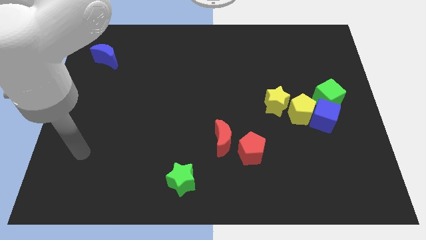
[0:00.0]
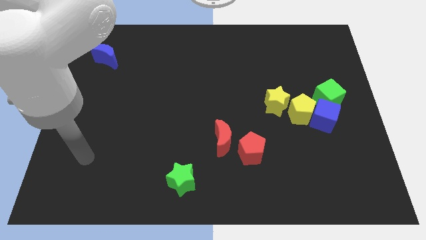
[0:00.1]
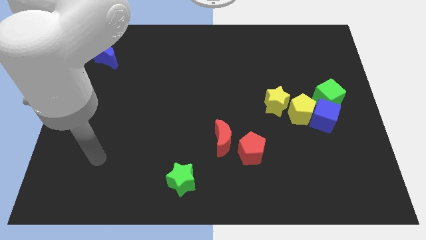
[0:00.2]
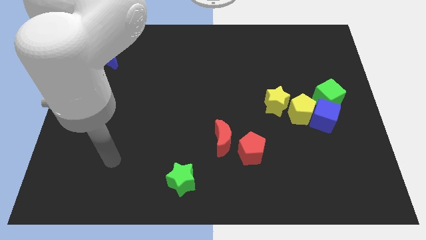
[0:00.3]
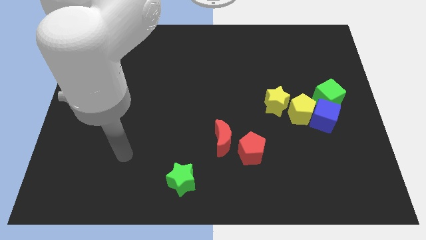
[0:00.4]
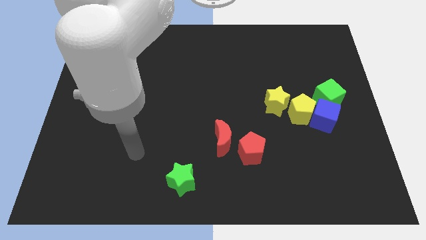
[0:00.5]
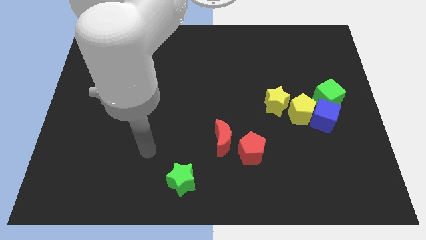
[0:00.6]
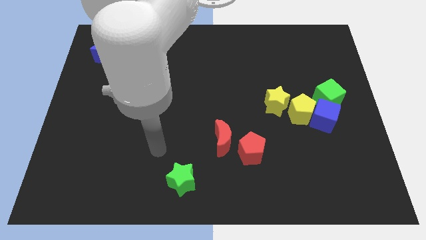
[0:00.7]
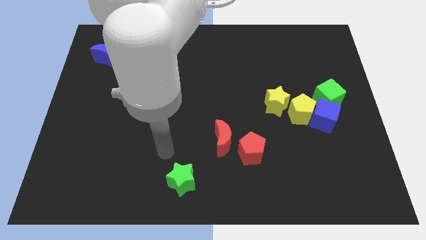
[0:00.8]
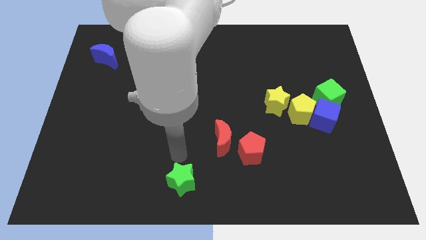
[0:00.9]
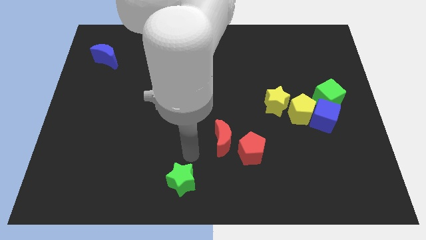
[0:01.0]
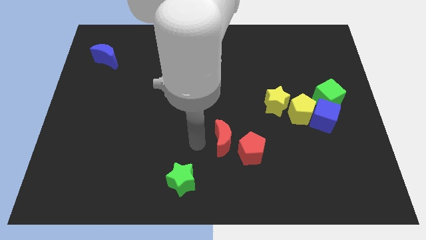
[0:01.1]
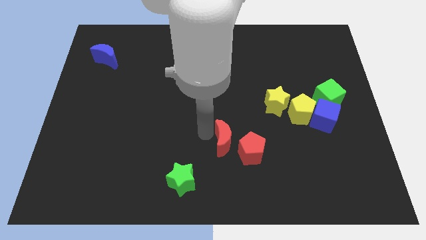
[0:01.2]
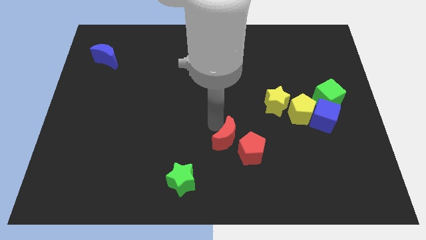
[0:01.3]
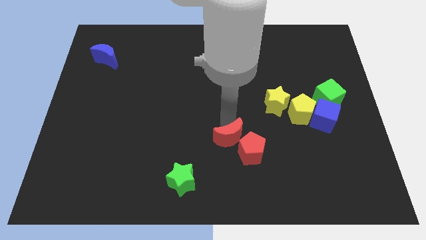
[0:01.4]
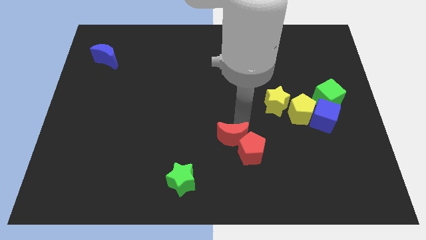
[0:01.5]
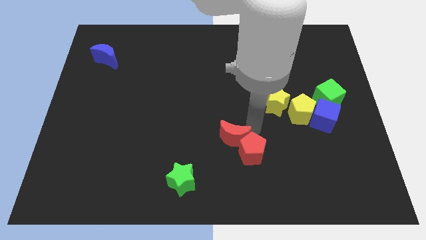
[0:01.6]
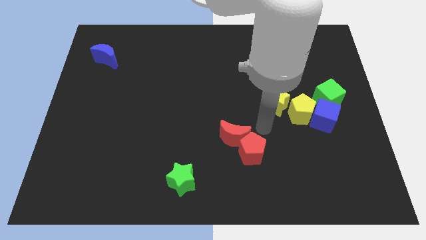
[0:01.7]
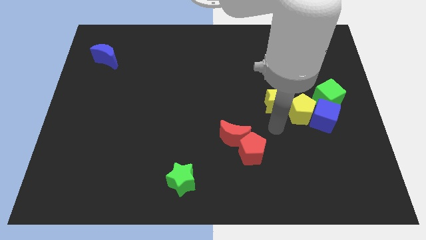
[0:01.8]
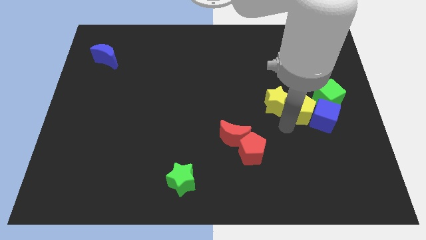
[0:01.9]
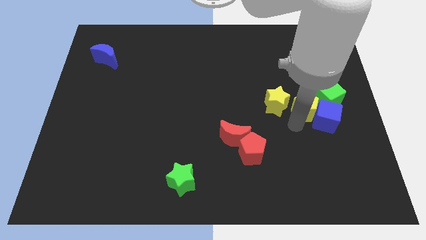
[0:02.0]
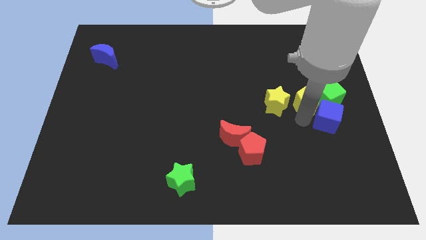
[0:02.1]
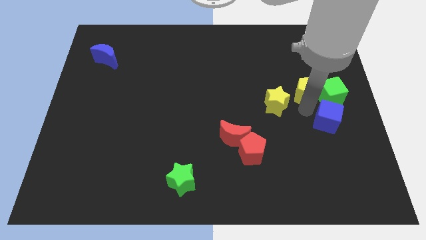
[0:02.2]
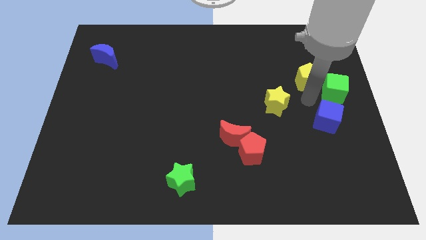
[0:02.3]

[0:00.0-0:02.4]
pull the blue cube apart from the yellow pentagon and green cube

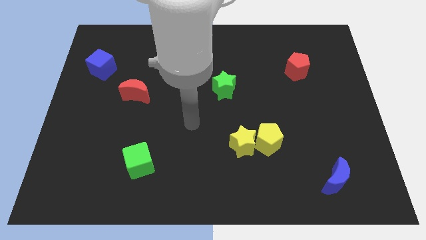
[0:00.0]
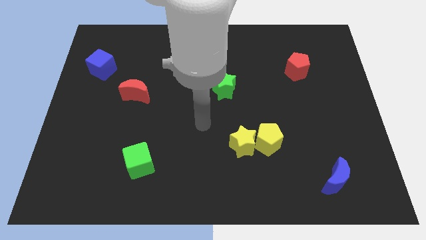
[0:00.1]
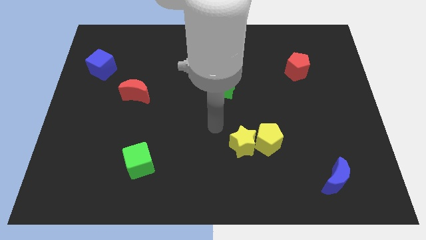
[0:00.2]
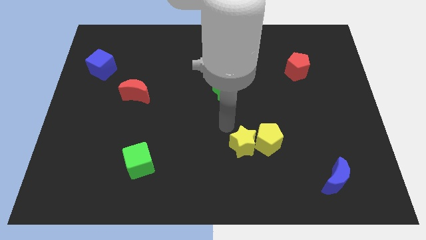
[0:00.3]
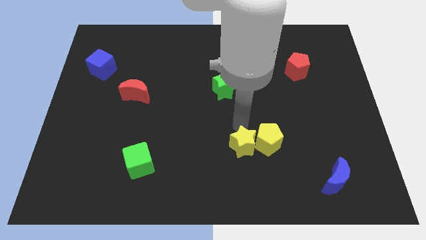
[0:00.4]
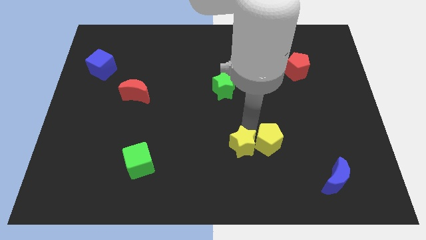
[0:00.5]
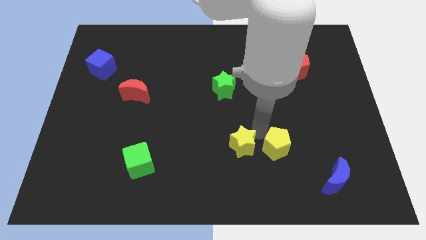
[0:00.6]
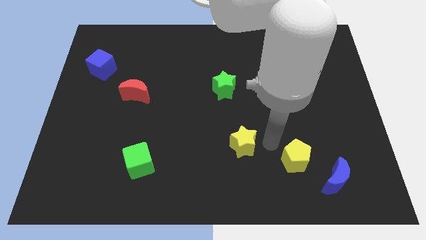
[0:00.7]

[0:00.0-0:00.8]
pull the yellow star apart from the yellow pentagon

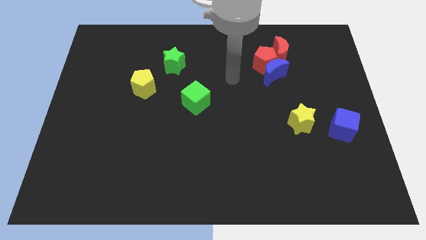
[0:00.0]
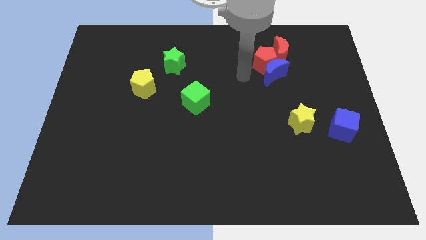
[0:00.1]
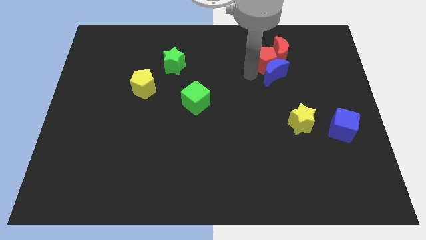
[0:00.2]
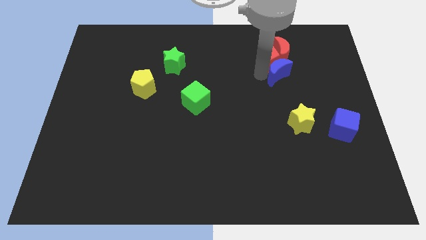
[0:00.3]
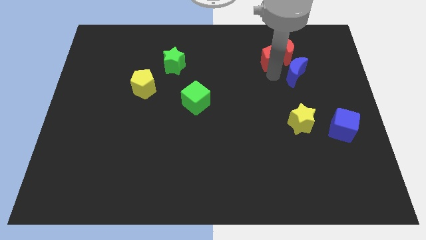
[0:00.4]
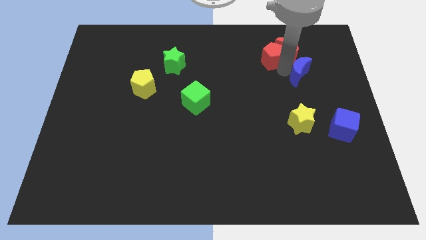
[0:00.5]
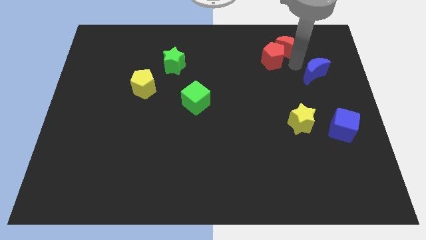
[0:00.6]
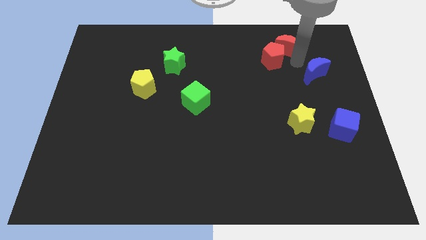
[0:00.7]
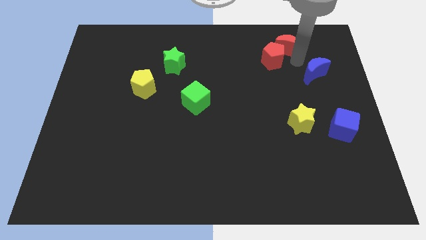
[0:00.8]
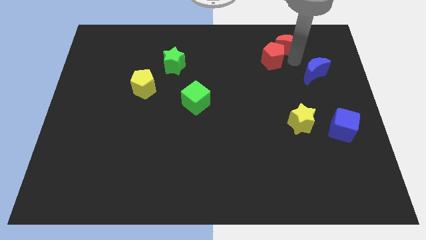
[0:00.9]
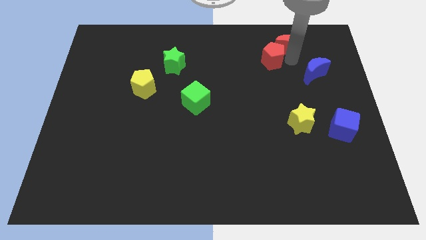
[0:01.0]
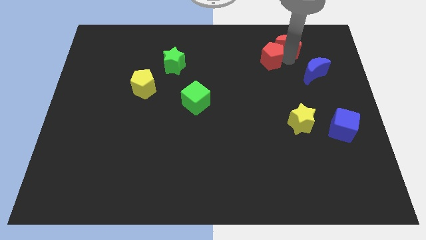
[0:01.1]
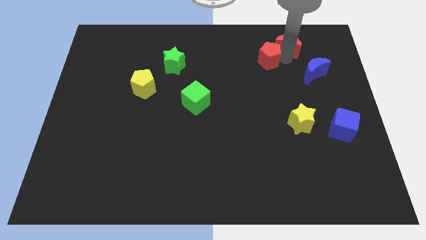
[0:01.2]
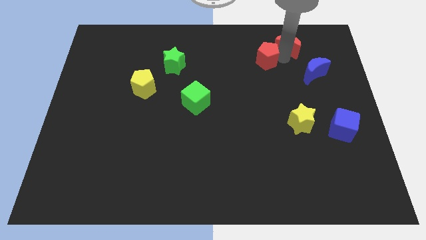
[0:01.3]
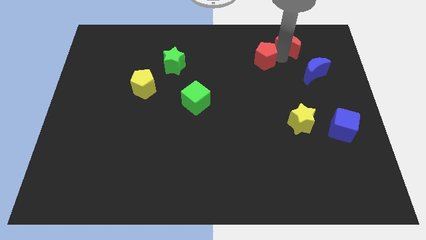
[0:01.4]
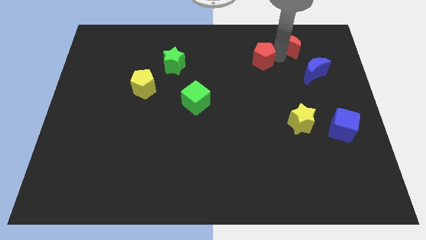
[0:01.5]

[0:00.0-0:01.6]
move the red pentagon away from the blue moon and red moon

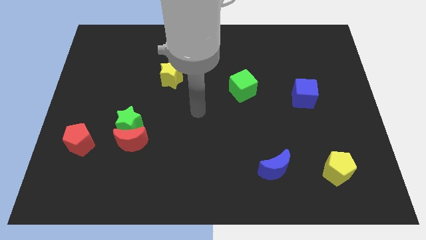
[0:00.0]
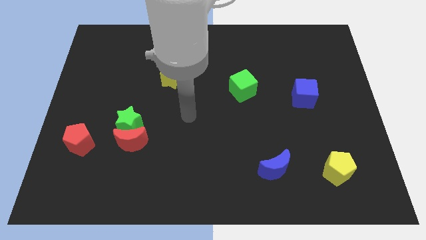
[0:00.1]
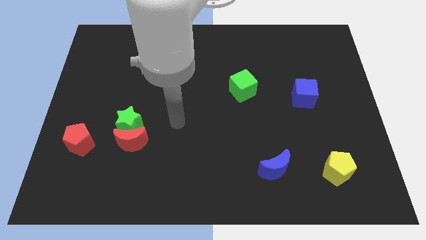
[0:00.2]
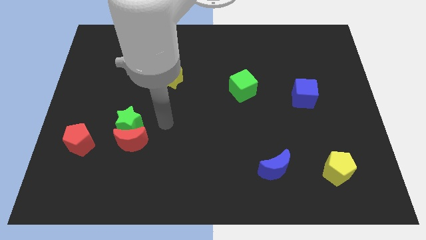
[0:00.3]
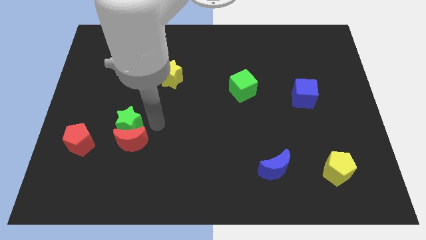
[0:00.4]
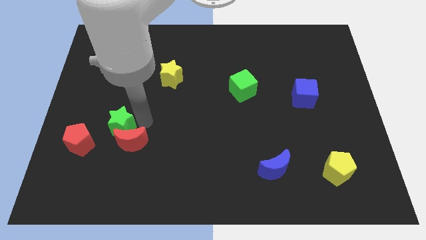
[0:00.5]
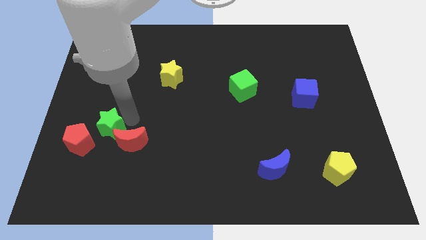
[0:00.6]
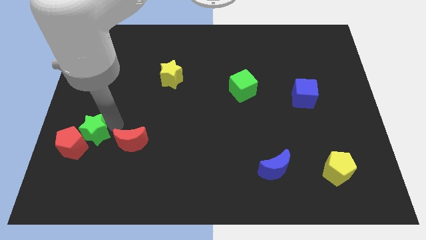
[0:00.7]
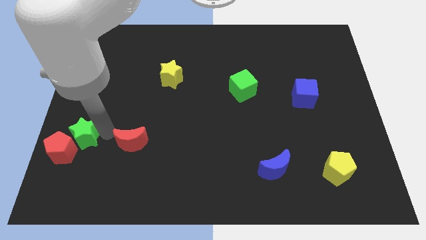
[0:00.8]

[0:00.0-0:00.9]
pull the red moon apart from the green star

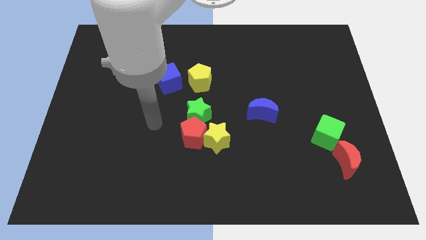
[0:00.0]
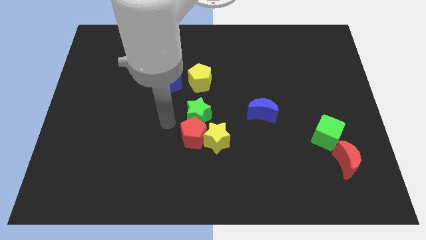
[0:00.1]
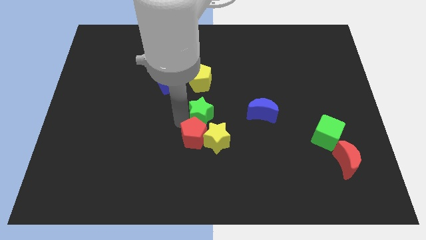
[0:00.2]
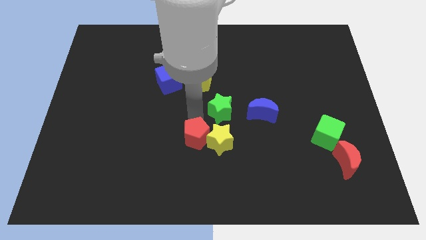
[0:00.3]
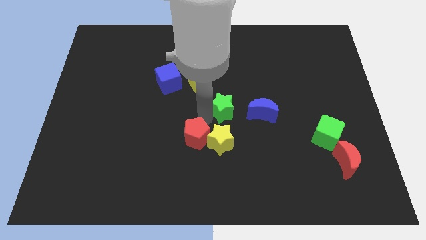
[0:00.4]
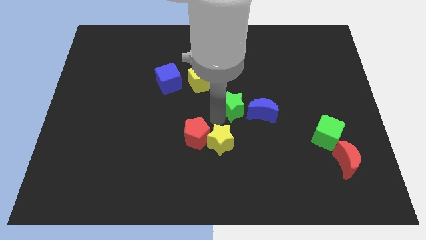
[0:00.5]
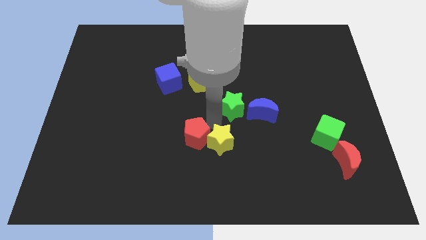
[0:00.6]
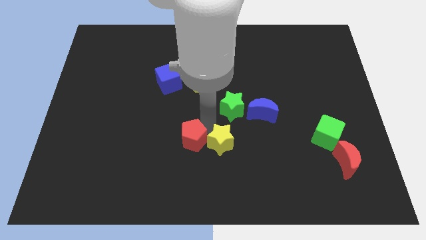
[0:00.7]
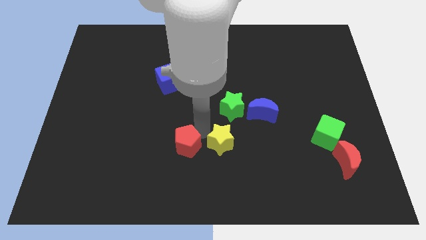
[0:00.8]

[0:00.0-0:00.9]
pull the red pentagon apart from the yellow star and green star

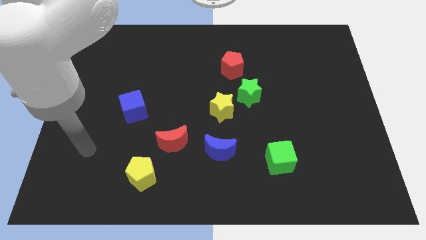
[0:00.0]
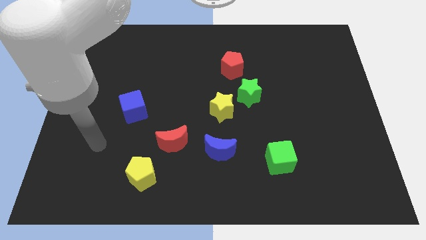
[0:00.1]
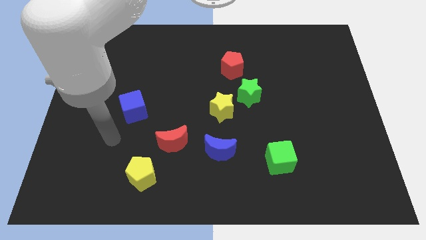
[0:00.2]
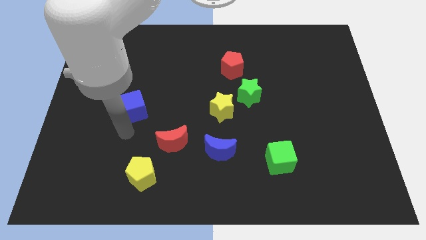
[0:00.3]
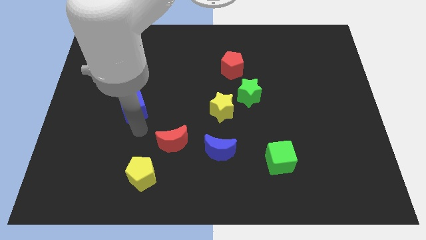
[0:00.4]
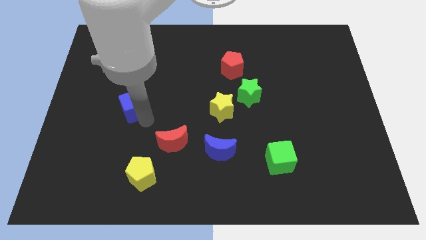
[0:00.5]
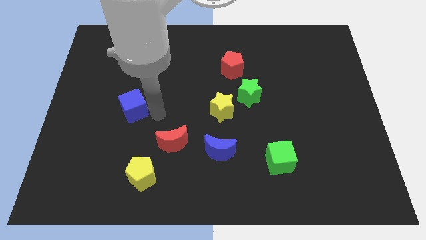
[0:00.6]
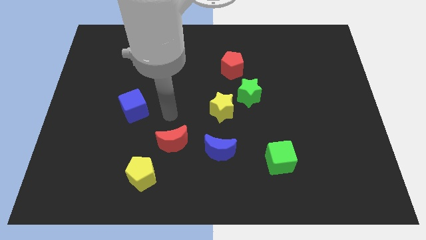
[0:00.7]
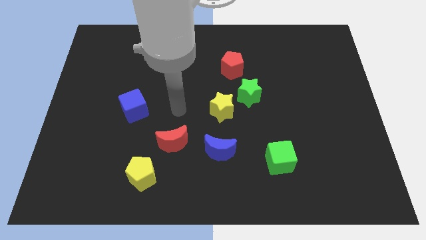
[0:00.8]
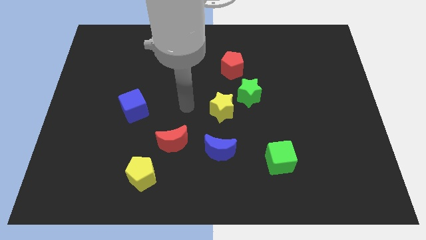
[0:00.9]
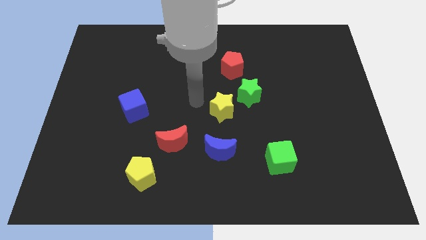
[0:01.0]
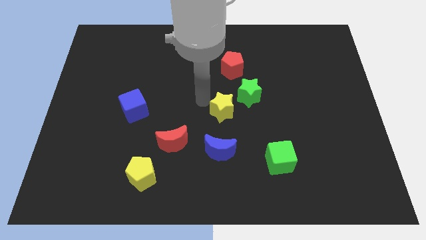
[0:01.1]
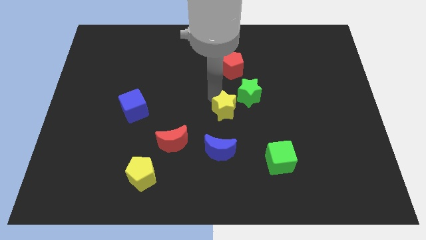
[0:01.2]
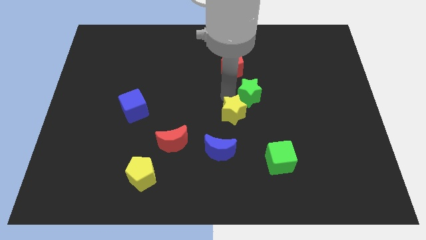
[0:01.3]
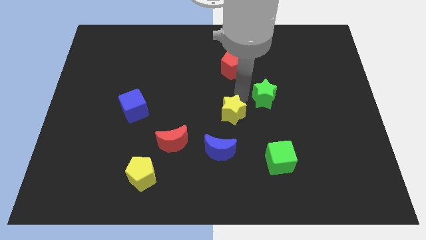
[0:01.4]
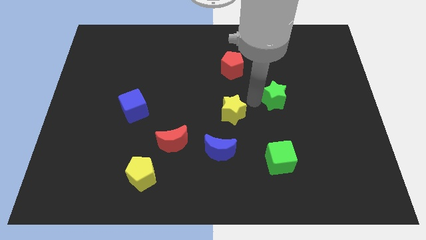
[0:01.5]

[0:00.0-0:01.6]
move the yellow star away from the green star

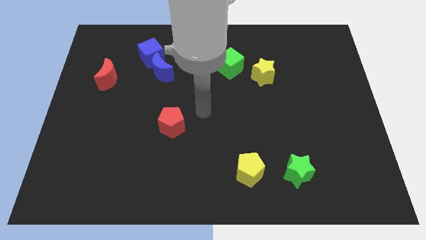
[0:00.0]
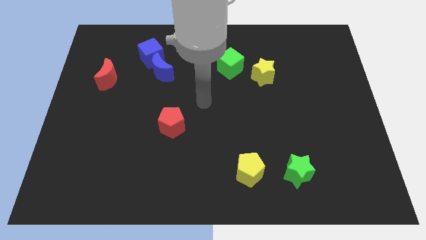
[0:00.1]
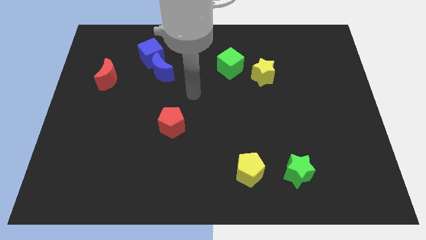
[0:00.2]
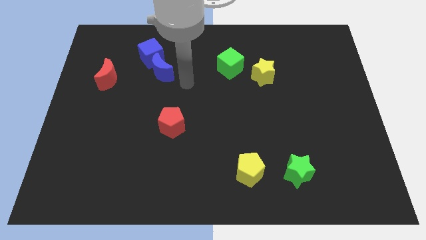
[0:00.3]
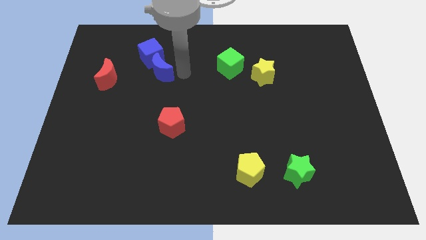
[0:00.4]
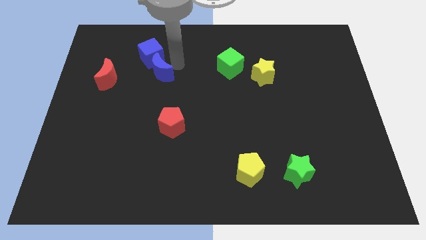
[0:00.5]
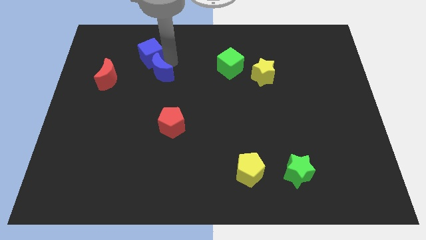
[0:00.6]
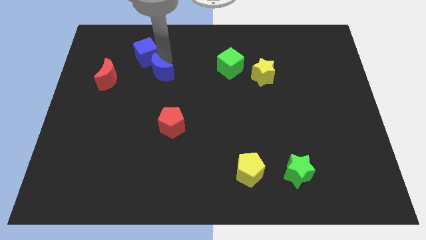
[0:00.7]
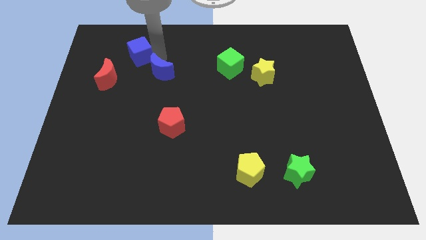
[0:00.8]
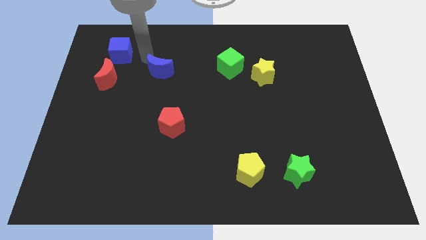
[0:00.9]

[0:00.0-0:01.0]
pull the blue moon apart from the blue cube
